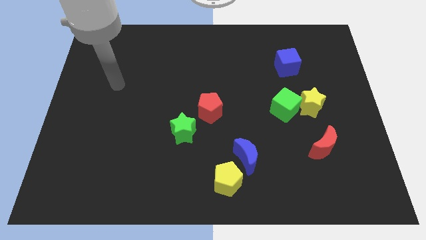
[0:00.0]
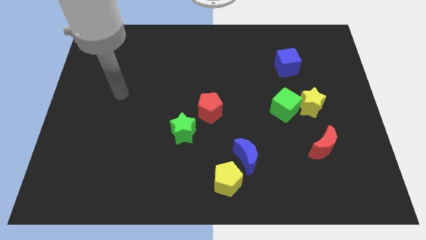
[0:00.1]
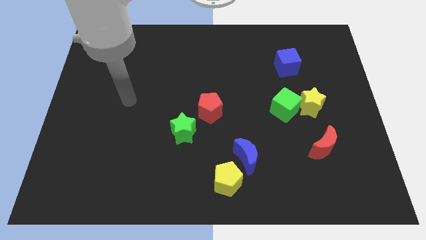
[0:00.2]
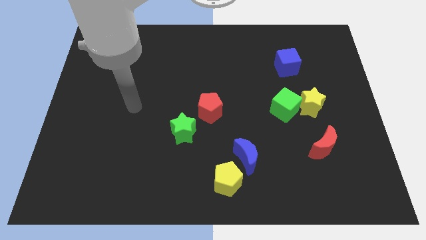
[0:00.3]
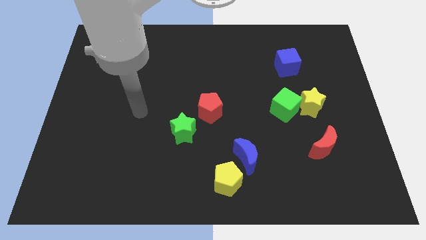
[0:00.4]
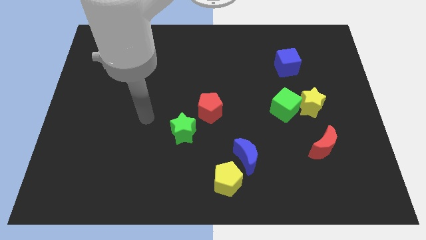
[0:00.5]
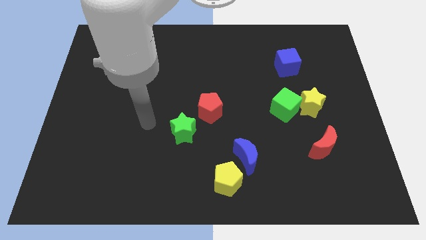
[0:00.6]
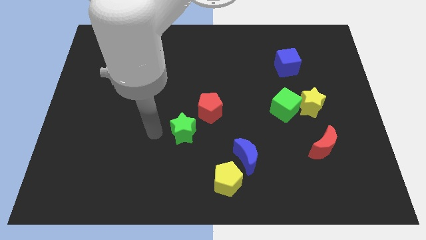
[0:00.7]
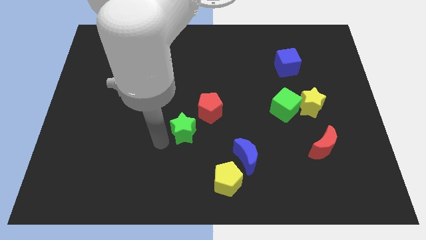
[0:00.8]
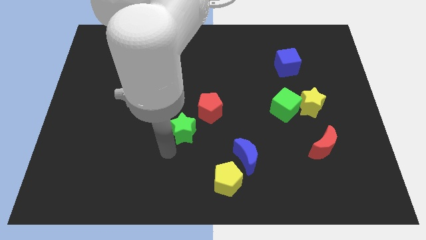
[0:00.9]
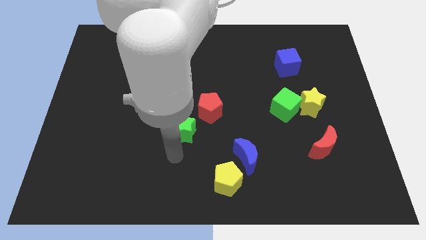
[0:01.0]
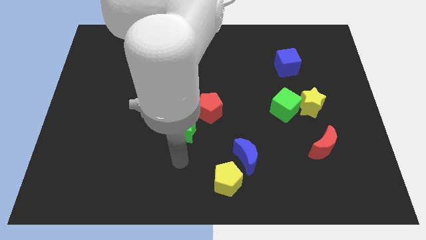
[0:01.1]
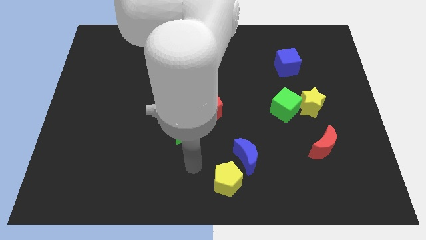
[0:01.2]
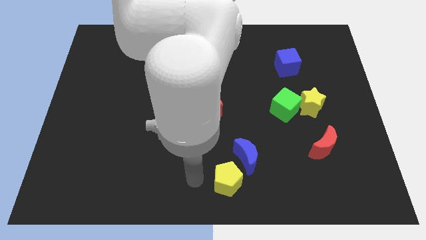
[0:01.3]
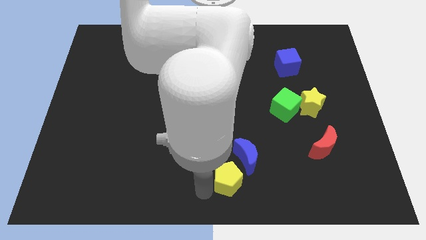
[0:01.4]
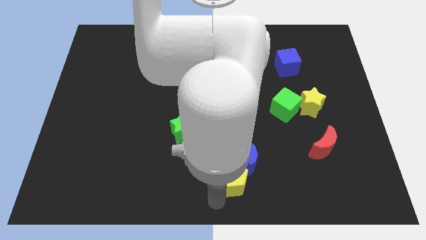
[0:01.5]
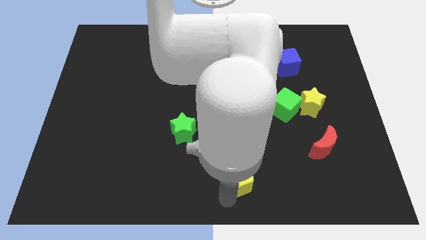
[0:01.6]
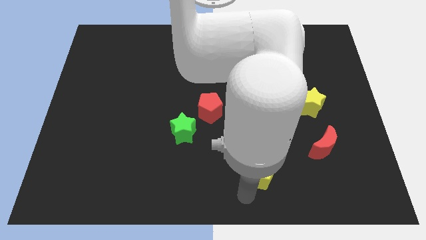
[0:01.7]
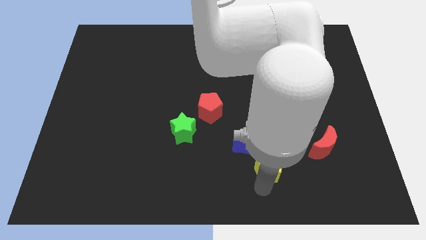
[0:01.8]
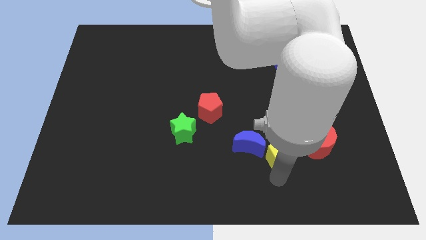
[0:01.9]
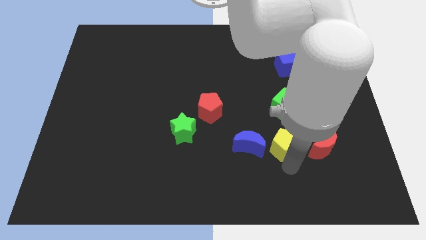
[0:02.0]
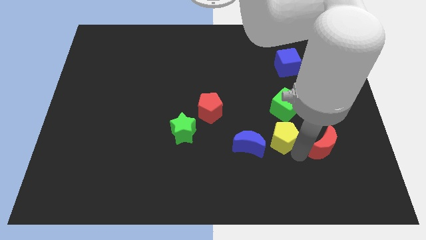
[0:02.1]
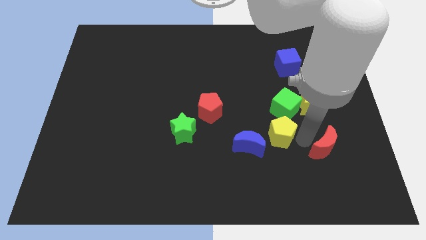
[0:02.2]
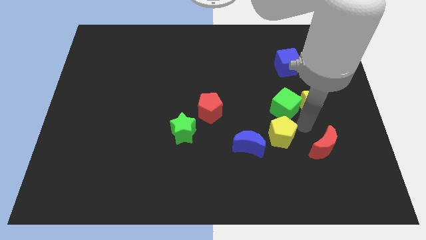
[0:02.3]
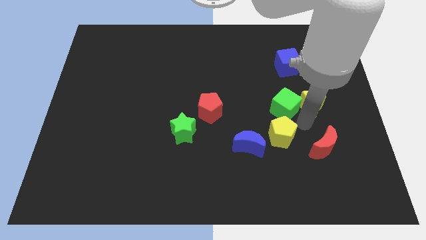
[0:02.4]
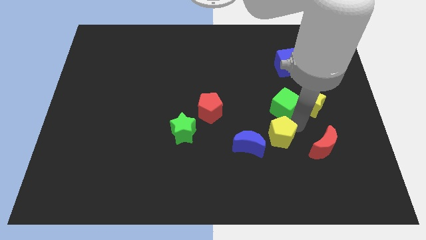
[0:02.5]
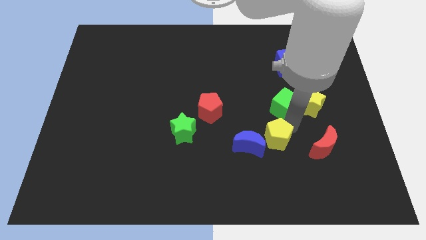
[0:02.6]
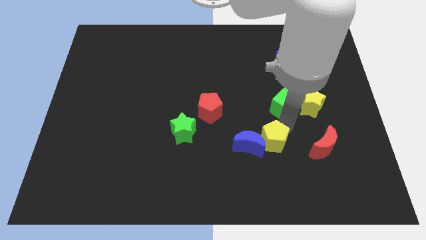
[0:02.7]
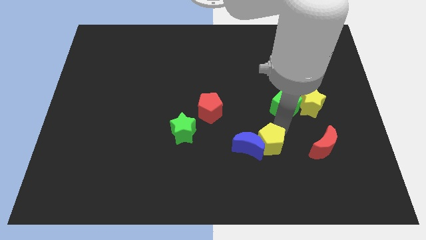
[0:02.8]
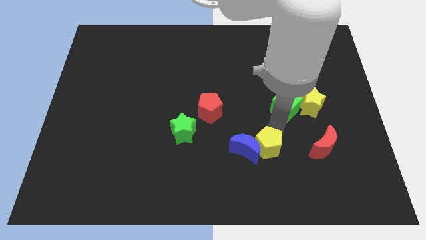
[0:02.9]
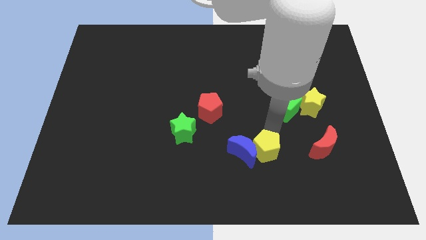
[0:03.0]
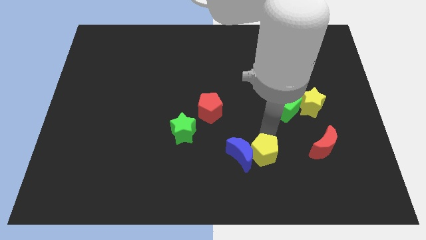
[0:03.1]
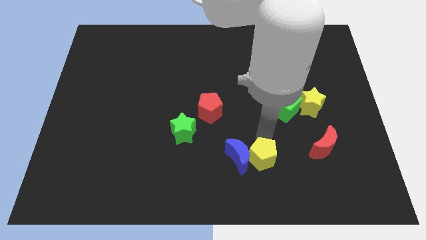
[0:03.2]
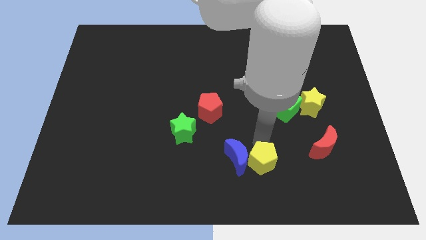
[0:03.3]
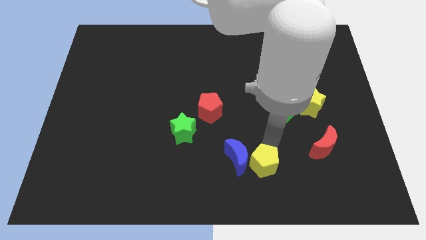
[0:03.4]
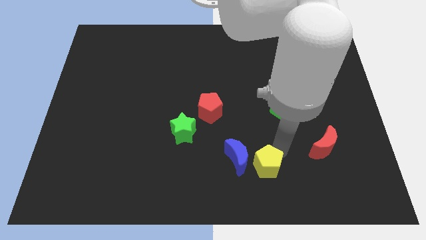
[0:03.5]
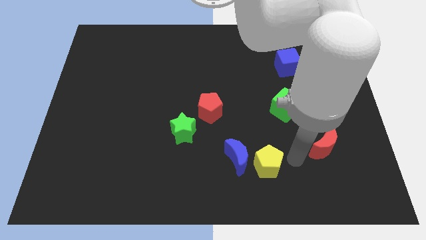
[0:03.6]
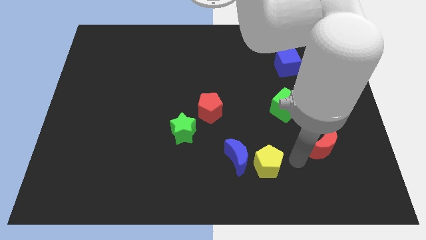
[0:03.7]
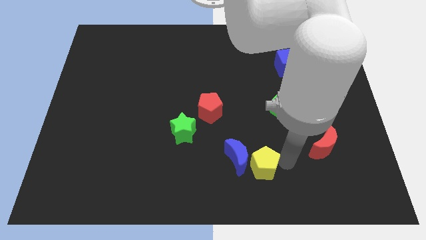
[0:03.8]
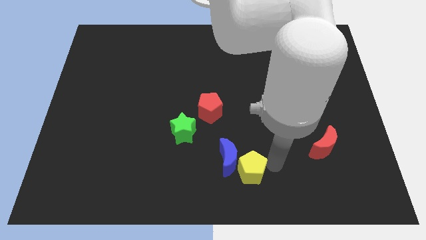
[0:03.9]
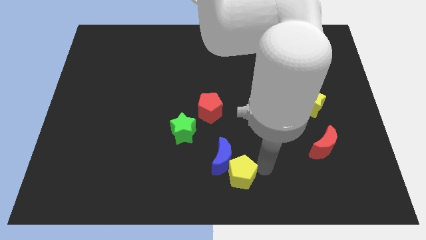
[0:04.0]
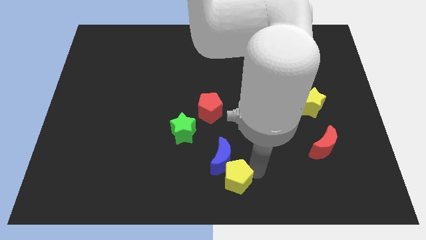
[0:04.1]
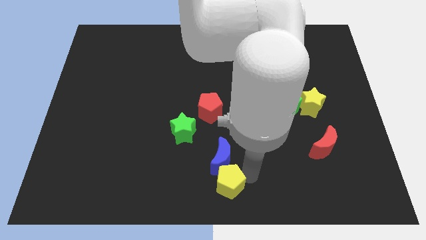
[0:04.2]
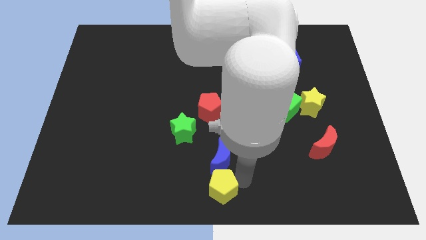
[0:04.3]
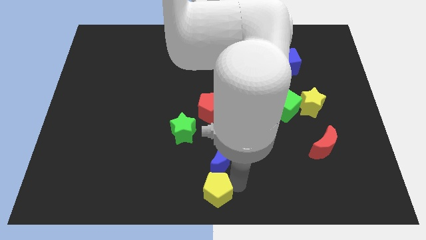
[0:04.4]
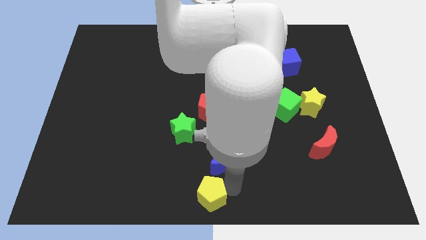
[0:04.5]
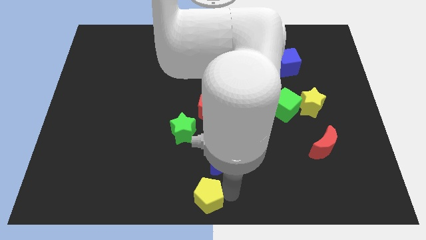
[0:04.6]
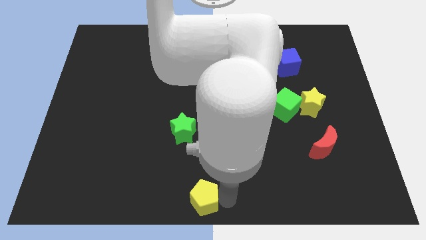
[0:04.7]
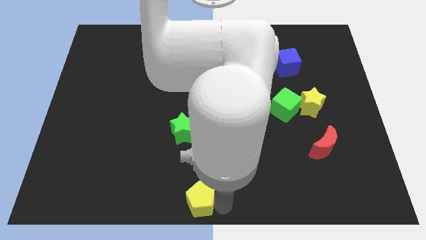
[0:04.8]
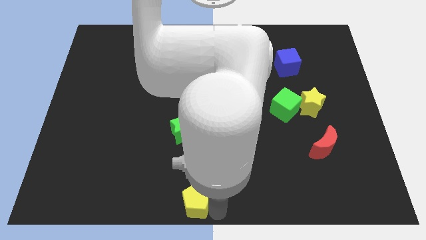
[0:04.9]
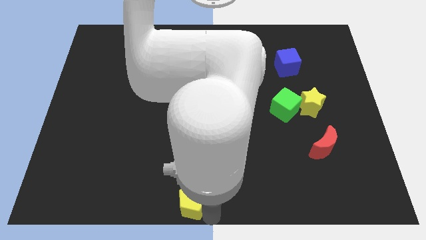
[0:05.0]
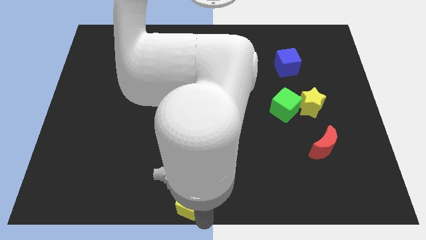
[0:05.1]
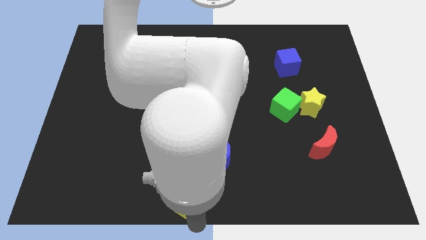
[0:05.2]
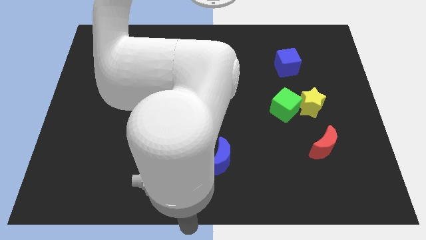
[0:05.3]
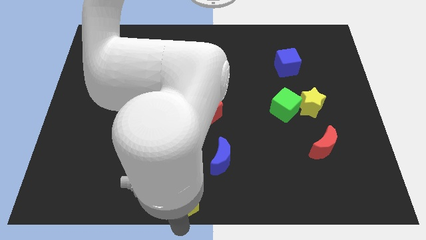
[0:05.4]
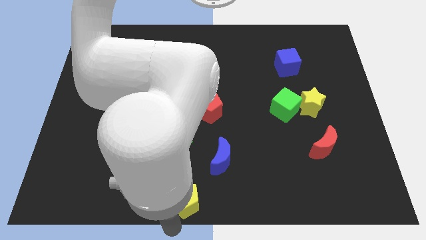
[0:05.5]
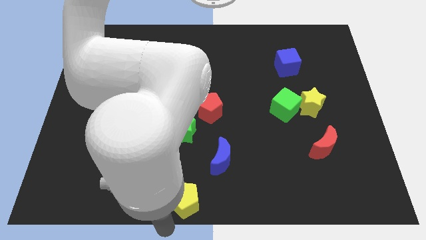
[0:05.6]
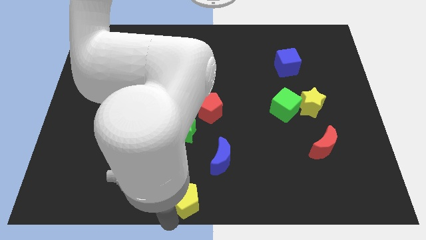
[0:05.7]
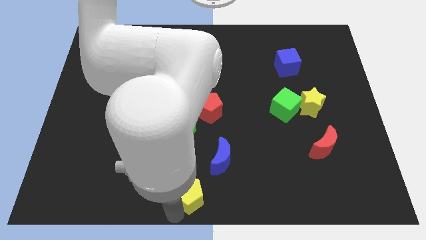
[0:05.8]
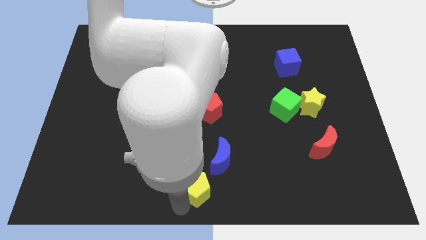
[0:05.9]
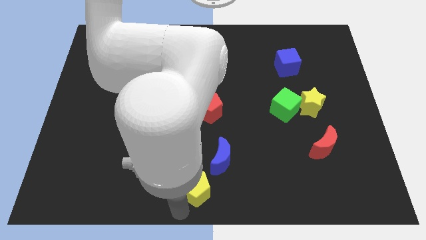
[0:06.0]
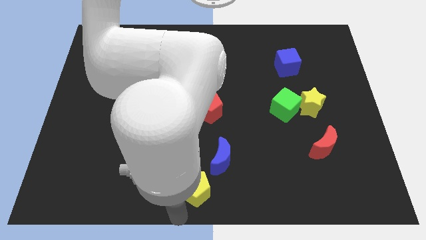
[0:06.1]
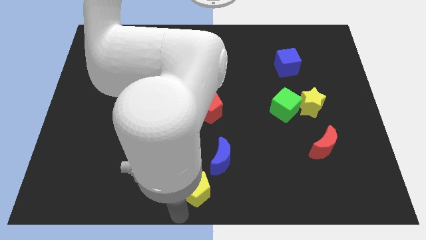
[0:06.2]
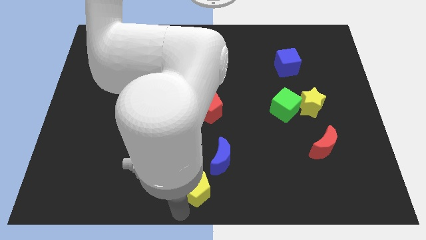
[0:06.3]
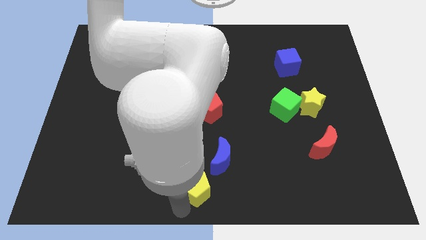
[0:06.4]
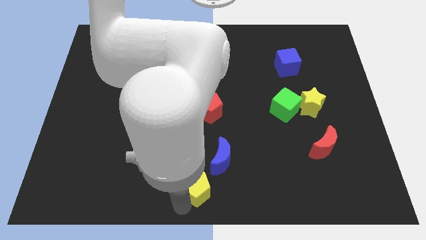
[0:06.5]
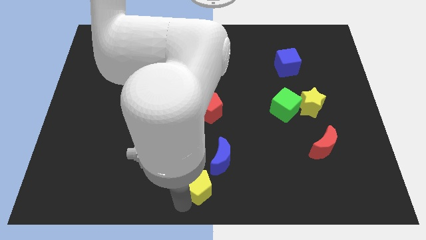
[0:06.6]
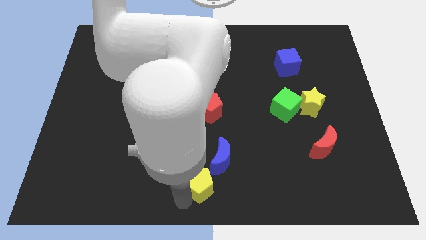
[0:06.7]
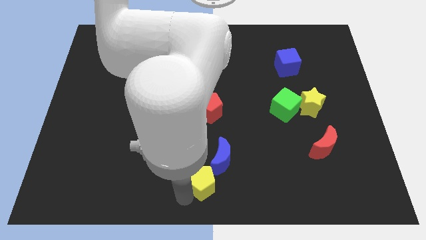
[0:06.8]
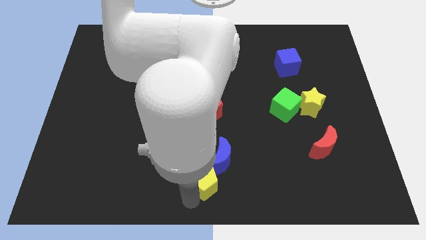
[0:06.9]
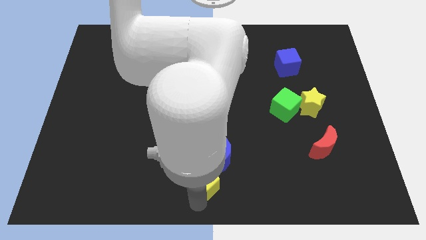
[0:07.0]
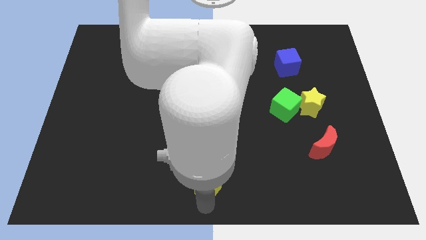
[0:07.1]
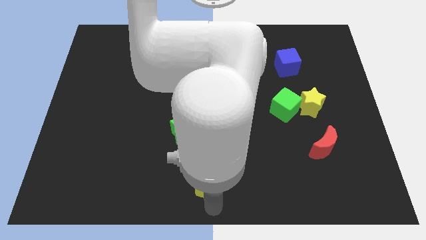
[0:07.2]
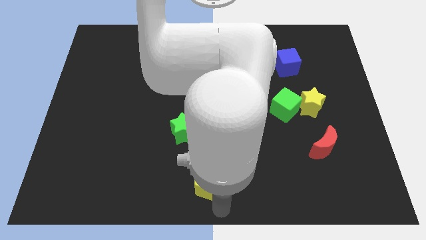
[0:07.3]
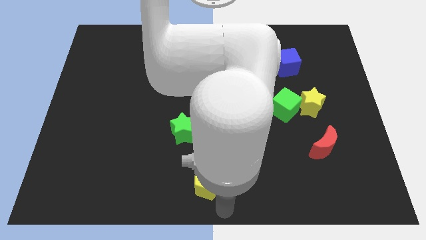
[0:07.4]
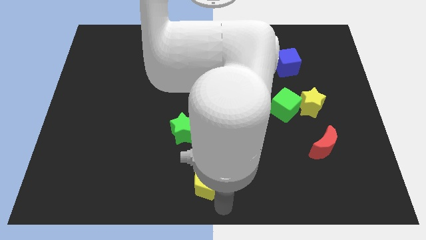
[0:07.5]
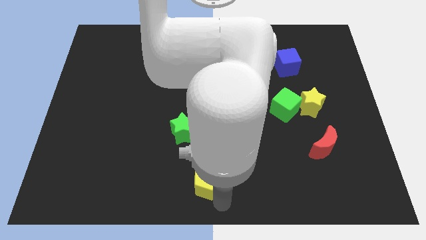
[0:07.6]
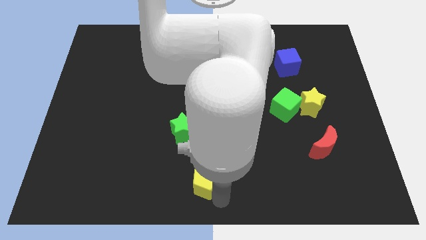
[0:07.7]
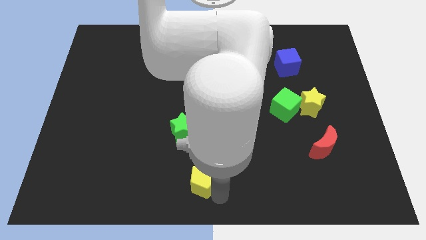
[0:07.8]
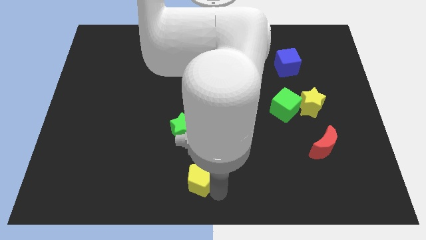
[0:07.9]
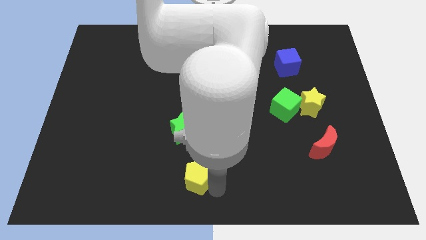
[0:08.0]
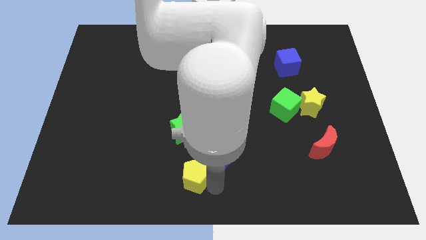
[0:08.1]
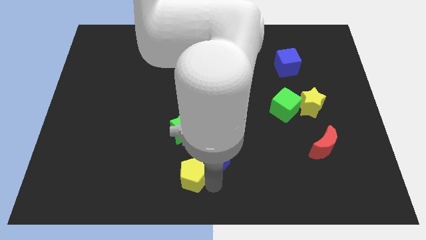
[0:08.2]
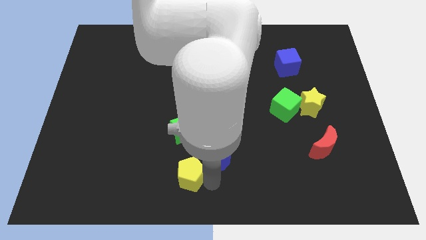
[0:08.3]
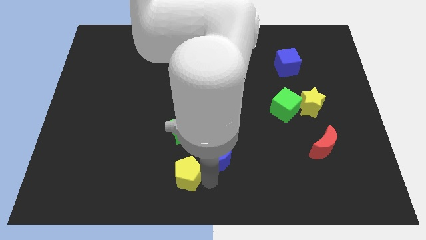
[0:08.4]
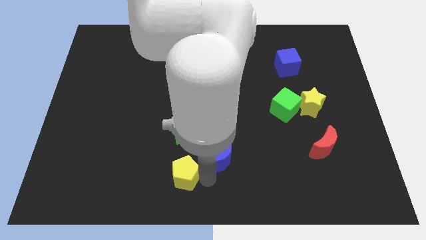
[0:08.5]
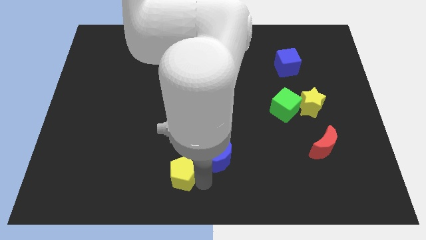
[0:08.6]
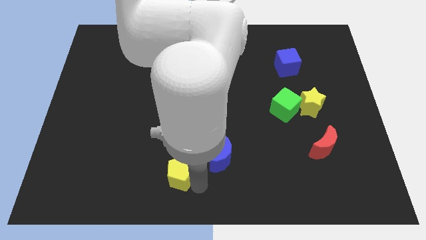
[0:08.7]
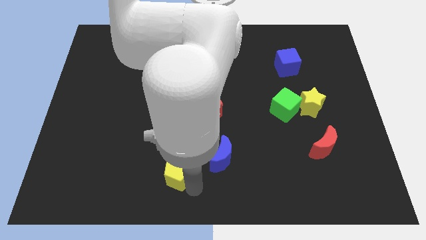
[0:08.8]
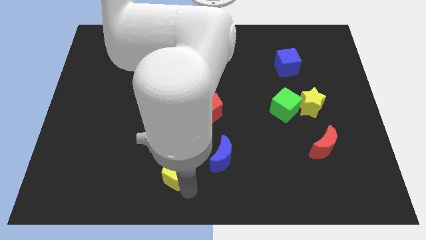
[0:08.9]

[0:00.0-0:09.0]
move the yellow pentagon slightly up and left
